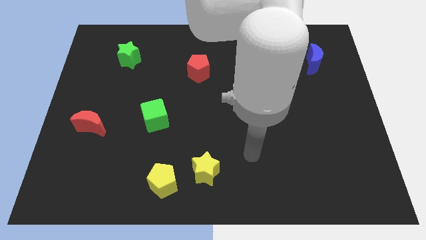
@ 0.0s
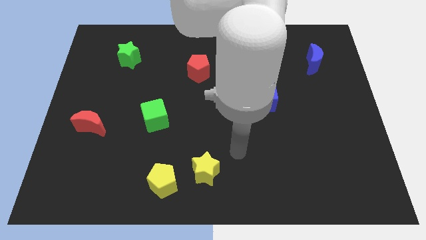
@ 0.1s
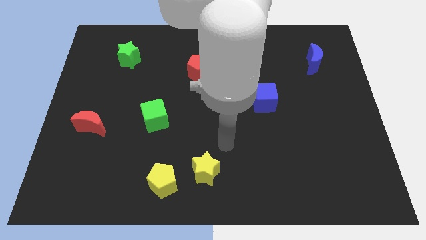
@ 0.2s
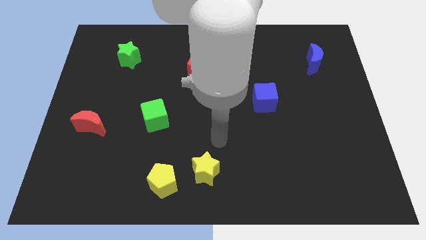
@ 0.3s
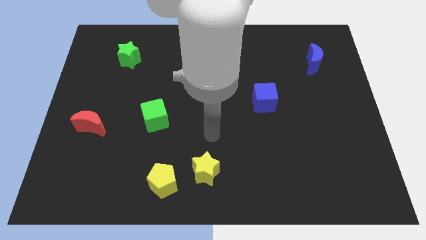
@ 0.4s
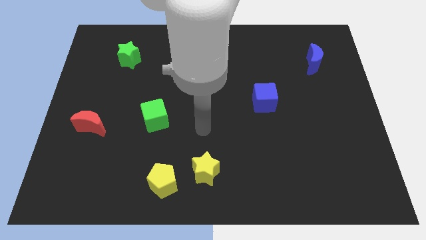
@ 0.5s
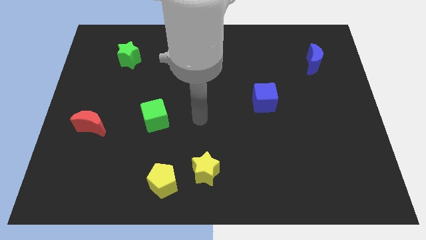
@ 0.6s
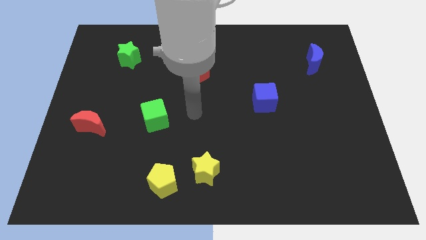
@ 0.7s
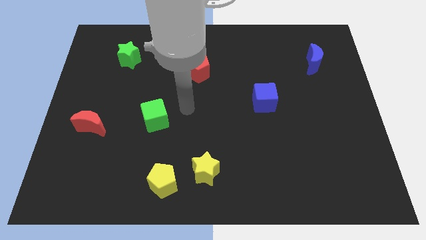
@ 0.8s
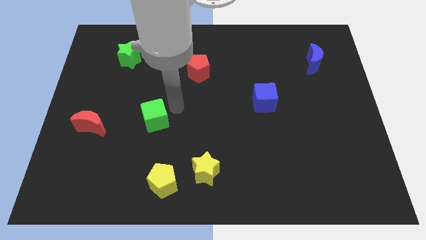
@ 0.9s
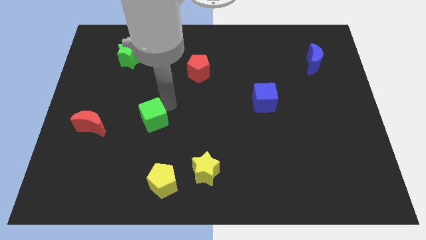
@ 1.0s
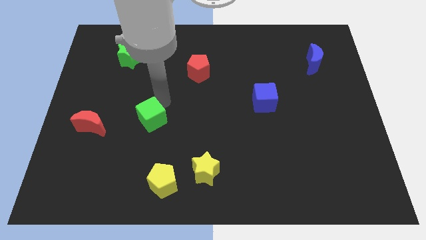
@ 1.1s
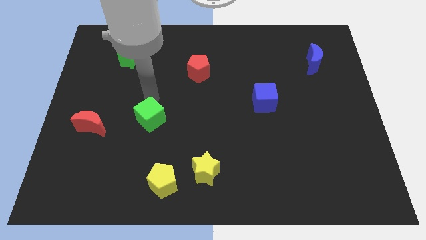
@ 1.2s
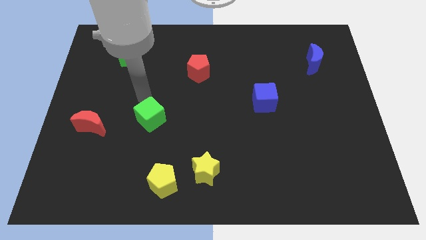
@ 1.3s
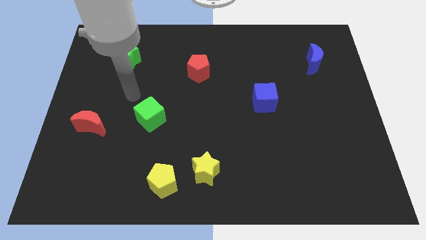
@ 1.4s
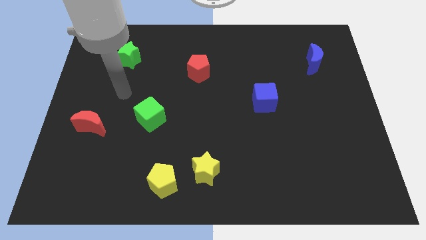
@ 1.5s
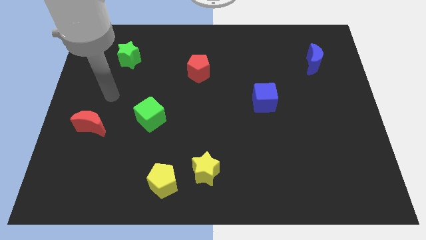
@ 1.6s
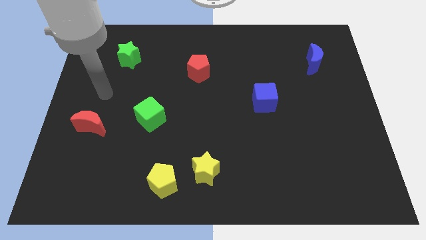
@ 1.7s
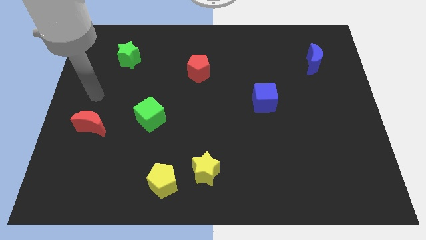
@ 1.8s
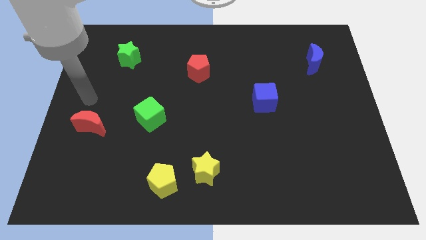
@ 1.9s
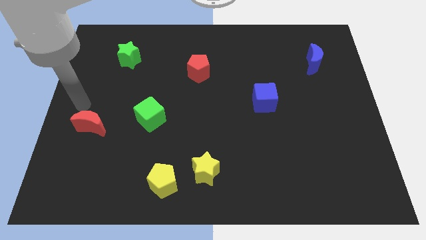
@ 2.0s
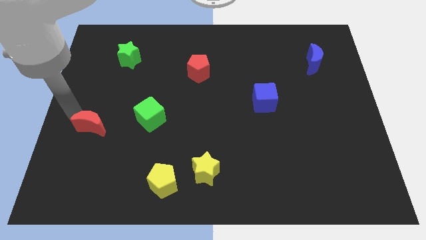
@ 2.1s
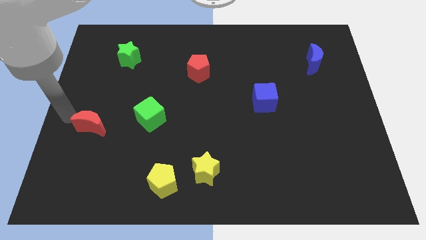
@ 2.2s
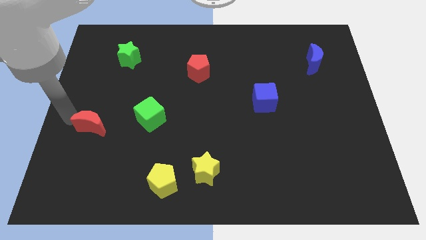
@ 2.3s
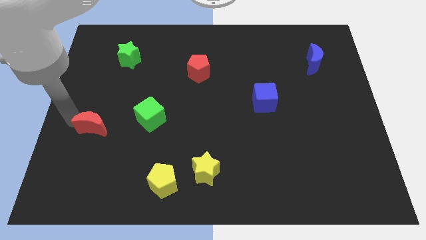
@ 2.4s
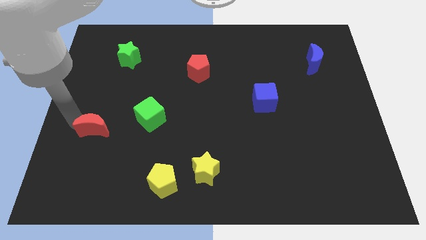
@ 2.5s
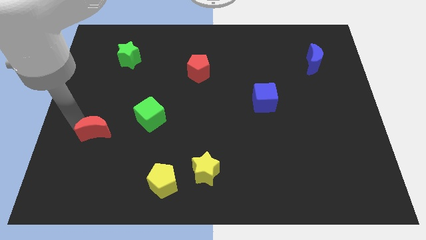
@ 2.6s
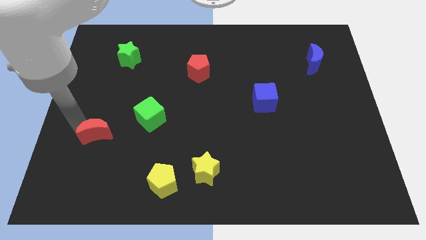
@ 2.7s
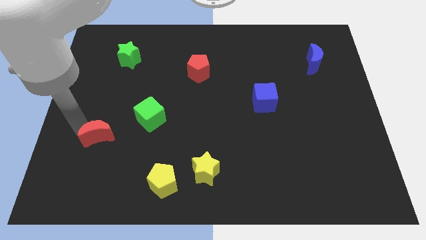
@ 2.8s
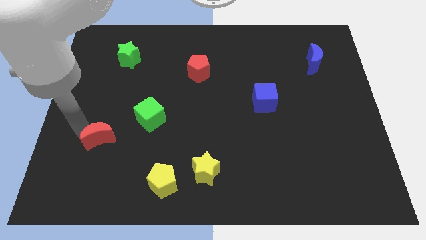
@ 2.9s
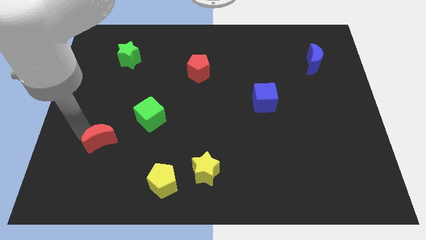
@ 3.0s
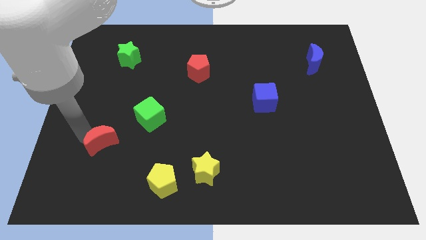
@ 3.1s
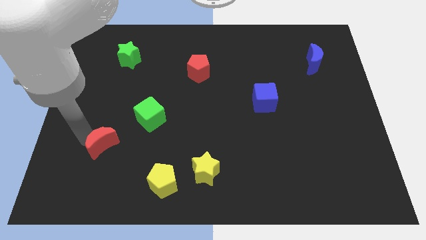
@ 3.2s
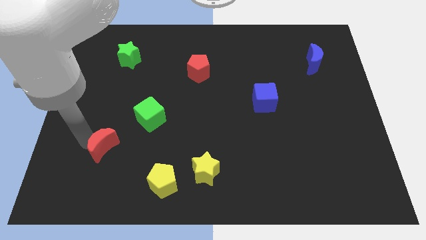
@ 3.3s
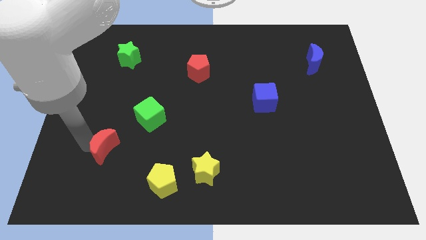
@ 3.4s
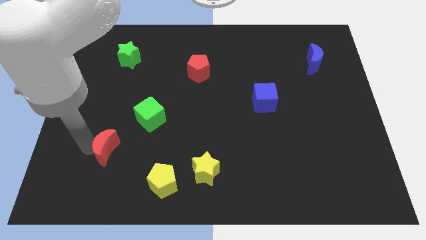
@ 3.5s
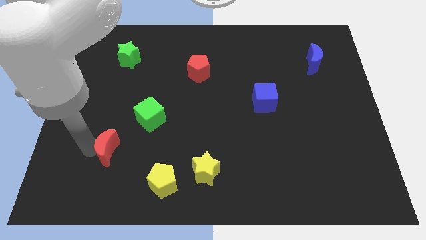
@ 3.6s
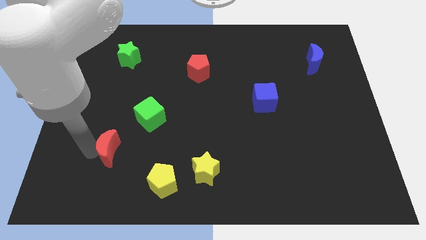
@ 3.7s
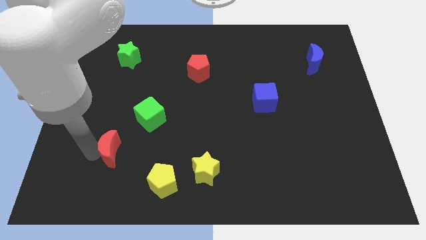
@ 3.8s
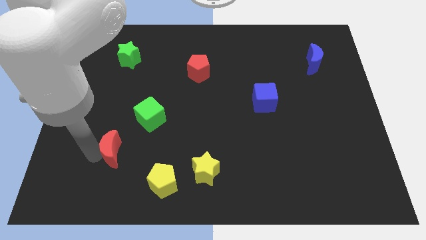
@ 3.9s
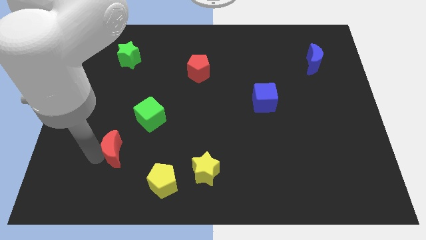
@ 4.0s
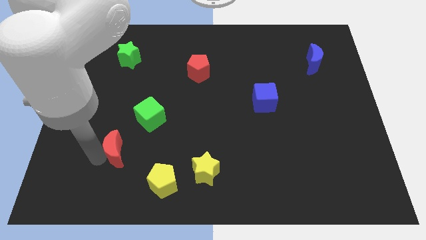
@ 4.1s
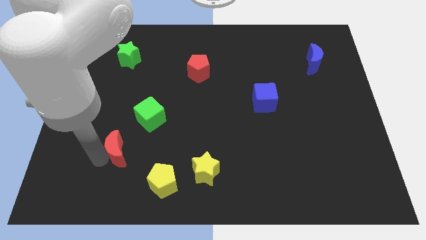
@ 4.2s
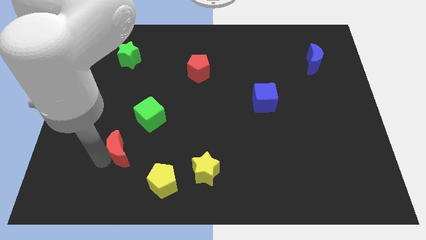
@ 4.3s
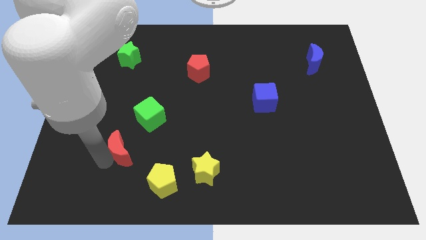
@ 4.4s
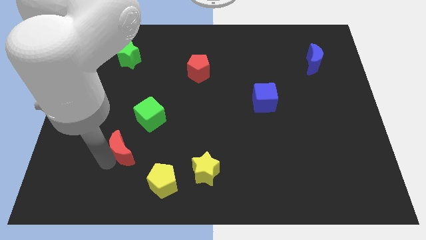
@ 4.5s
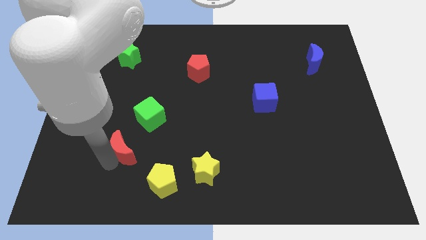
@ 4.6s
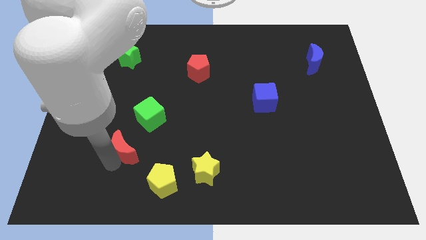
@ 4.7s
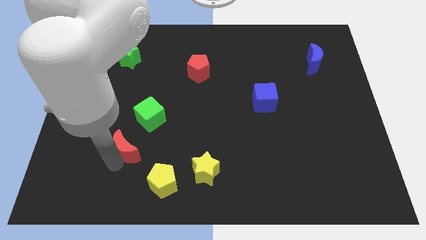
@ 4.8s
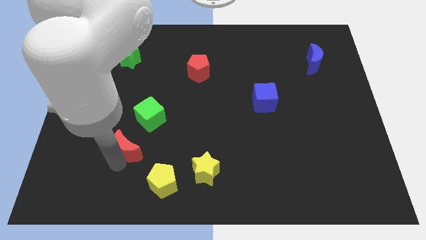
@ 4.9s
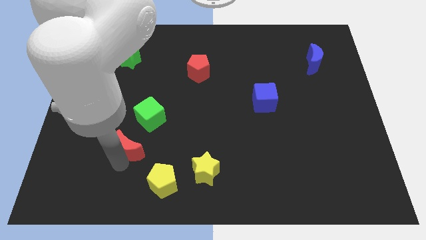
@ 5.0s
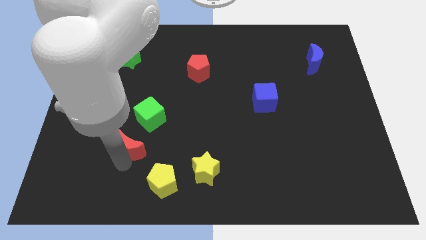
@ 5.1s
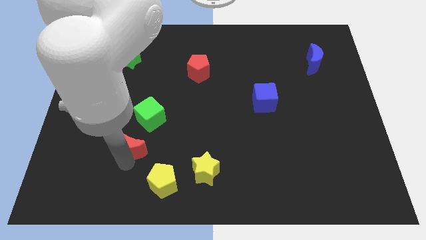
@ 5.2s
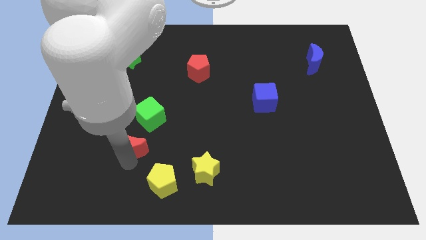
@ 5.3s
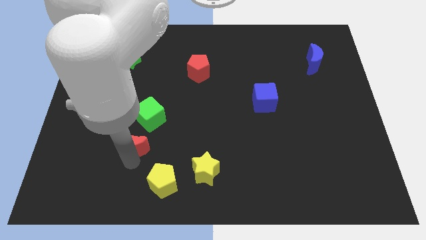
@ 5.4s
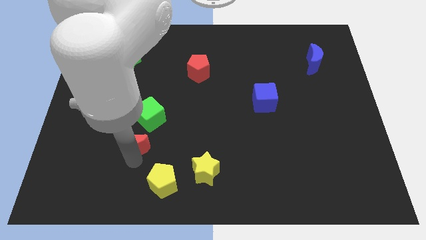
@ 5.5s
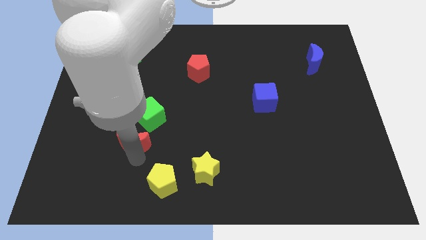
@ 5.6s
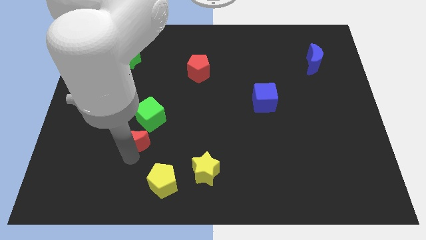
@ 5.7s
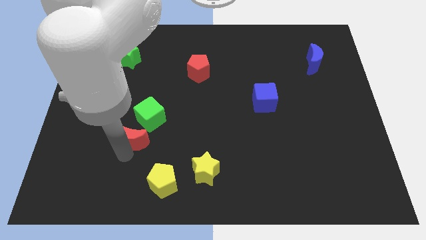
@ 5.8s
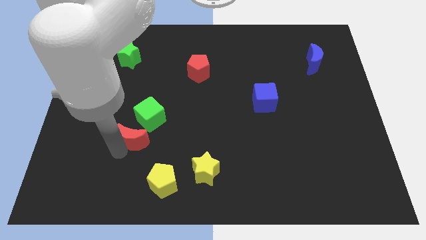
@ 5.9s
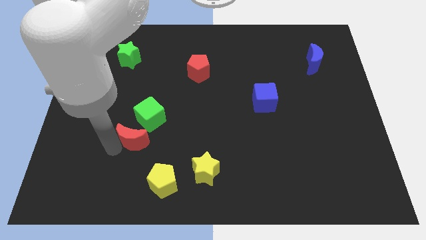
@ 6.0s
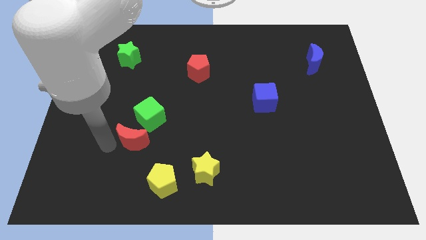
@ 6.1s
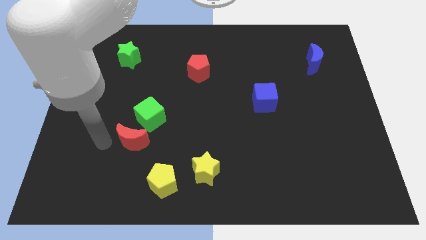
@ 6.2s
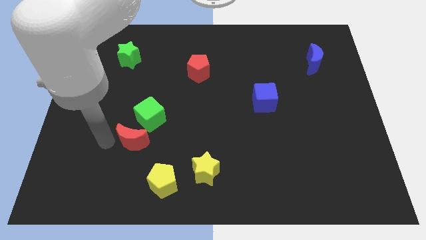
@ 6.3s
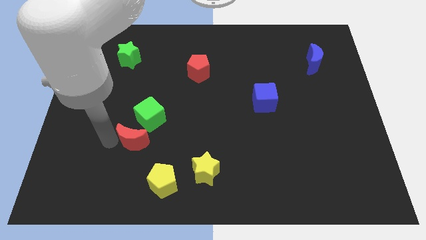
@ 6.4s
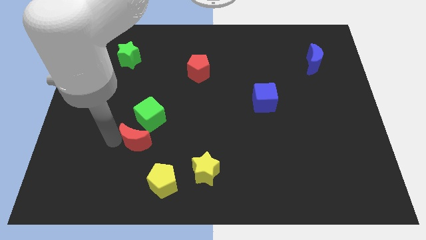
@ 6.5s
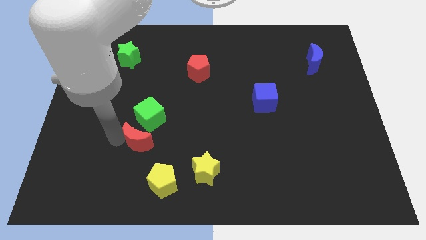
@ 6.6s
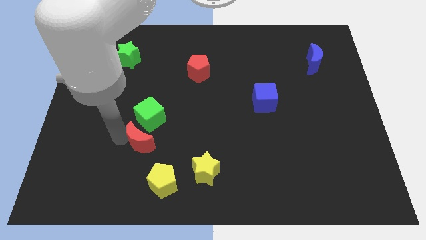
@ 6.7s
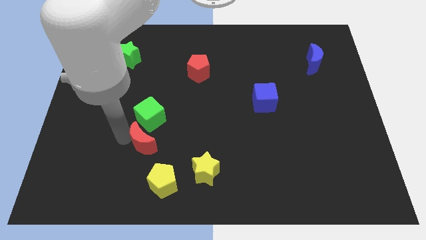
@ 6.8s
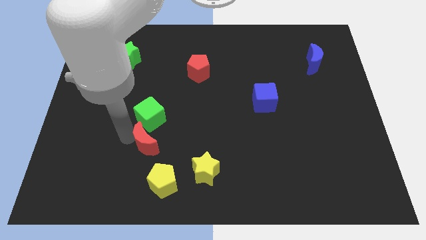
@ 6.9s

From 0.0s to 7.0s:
push the red moon to the top of the yellow pentagon
